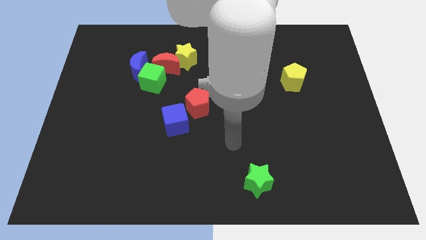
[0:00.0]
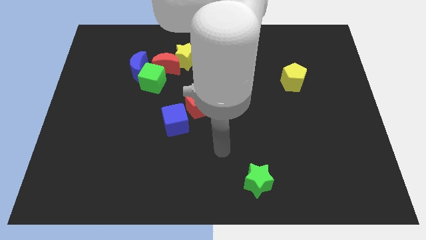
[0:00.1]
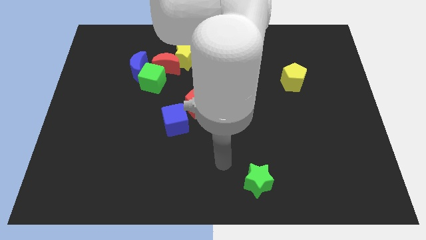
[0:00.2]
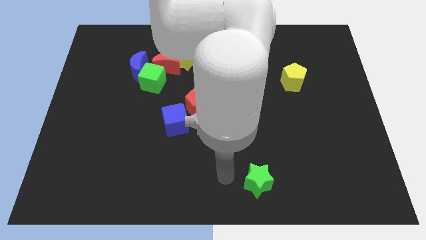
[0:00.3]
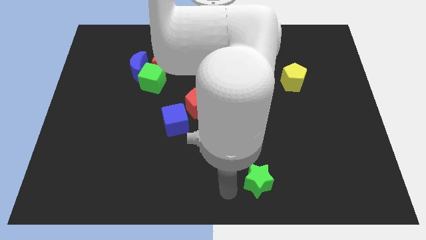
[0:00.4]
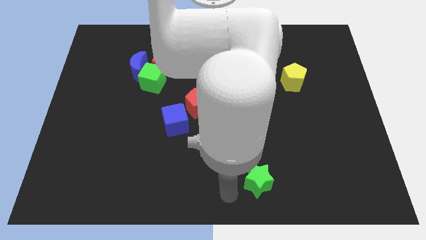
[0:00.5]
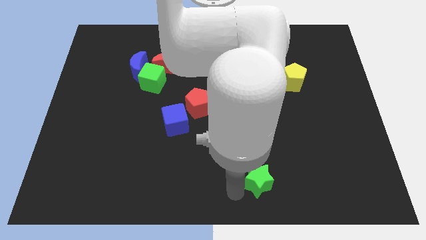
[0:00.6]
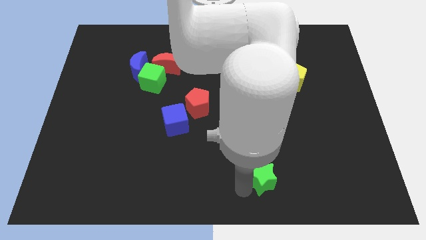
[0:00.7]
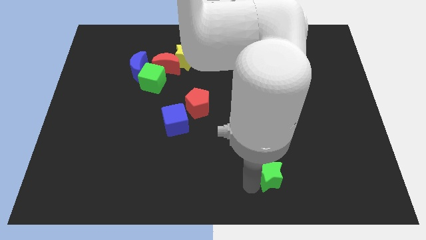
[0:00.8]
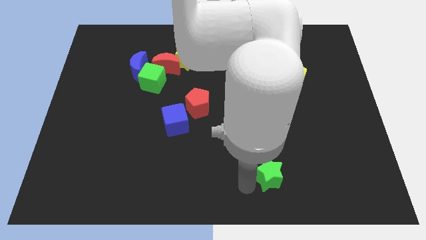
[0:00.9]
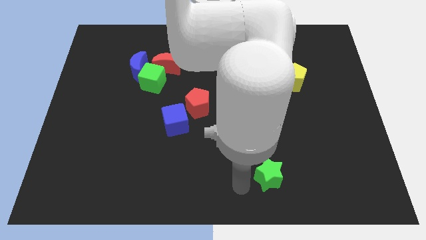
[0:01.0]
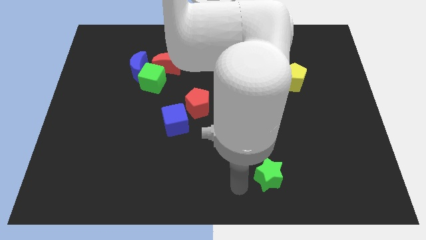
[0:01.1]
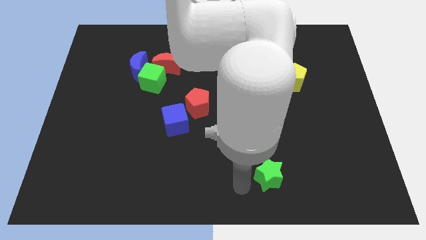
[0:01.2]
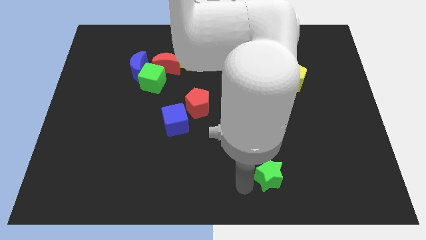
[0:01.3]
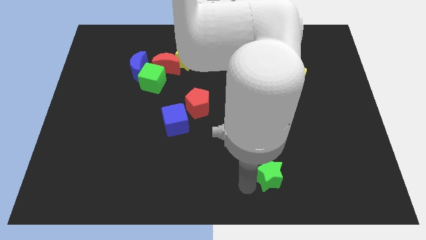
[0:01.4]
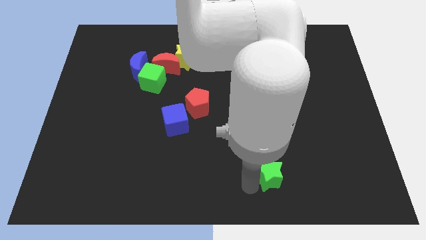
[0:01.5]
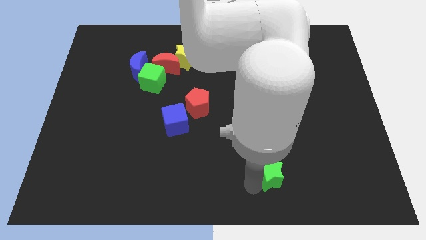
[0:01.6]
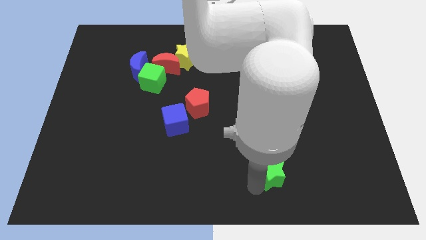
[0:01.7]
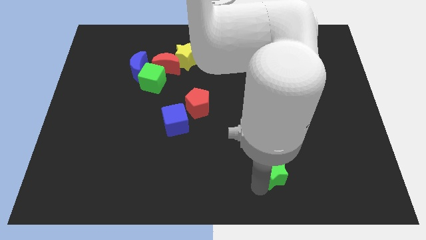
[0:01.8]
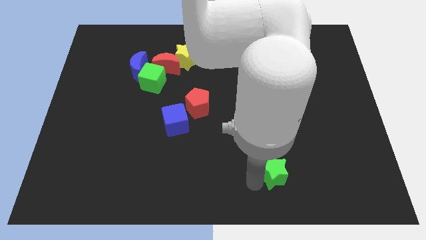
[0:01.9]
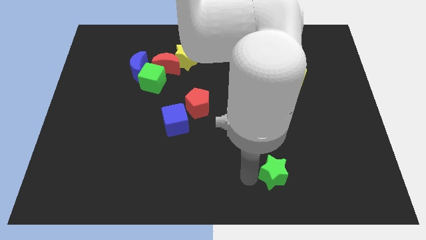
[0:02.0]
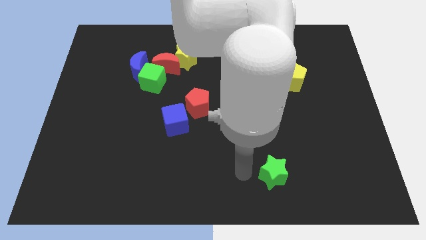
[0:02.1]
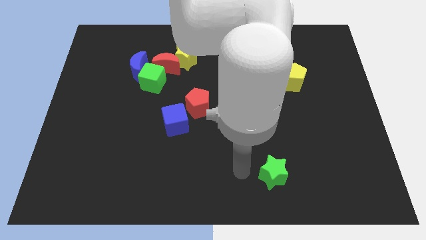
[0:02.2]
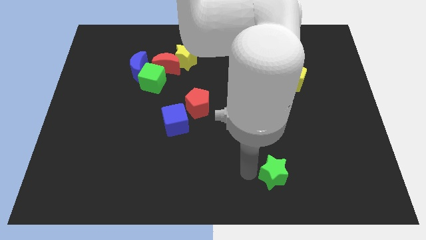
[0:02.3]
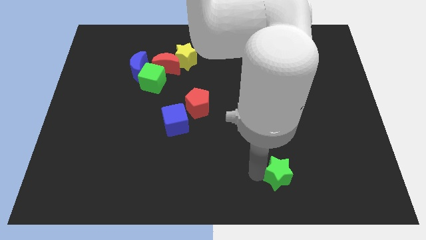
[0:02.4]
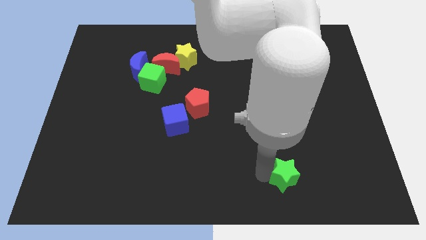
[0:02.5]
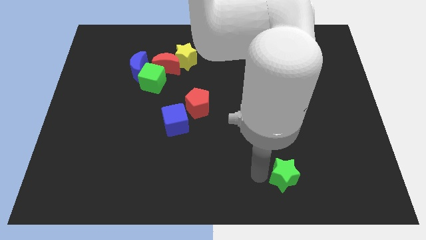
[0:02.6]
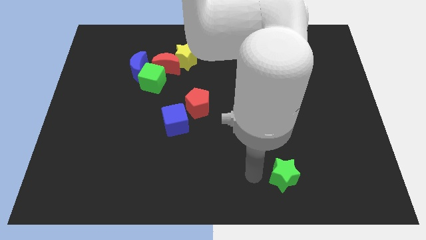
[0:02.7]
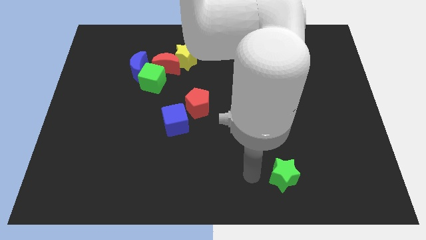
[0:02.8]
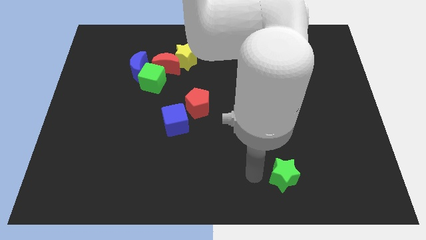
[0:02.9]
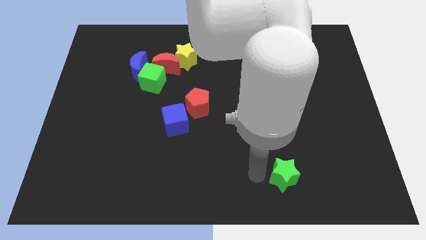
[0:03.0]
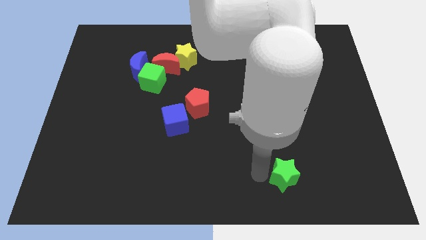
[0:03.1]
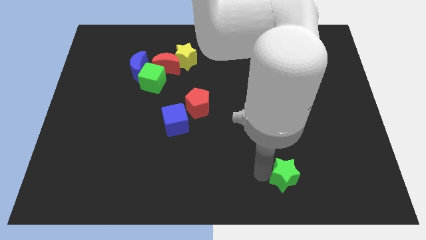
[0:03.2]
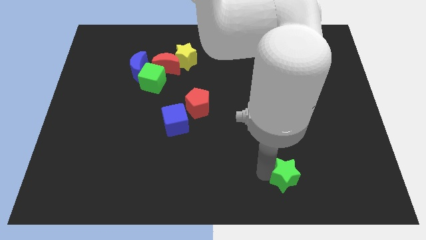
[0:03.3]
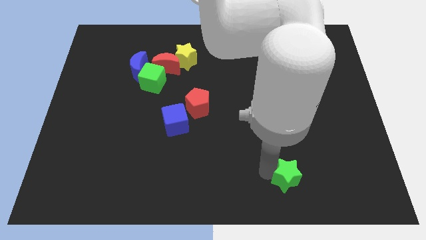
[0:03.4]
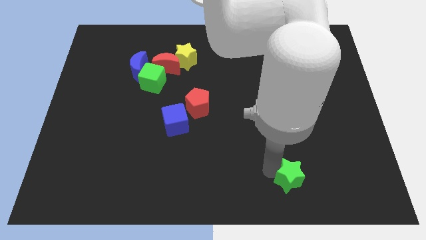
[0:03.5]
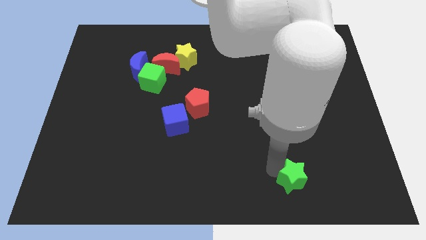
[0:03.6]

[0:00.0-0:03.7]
slide the green star a bit right

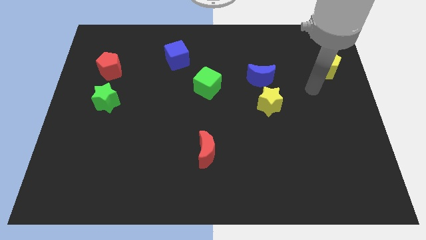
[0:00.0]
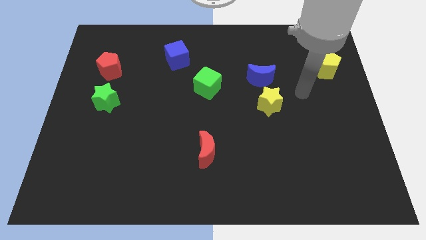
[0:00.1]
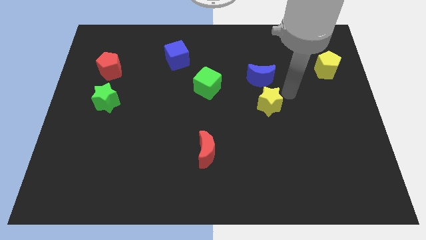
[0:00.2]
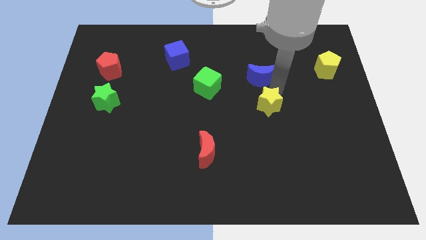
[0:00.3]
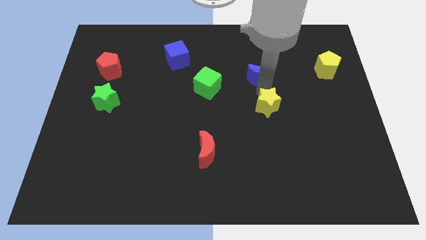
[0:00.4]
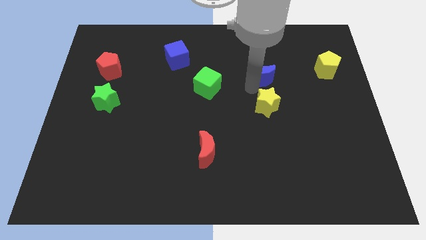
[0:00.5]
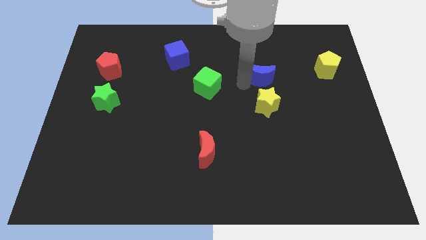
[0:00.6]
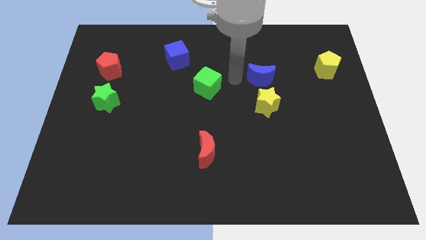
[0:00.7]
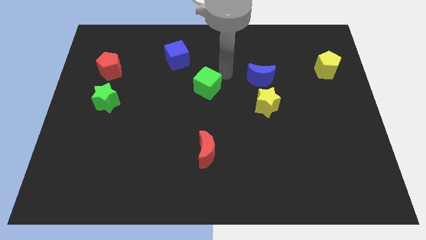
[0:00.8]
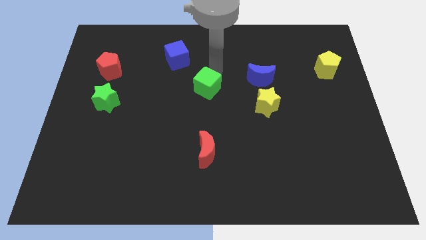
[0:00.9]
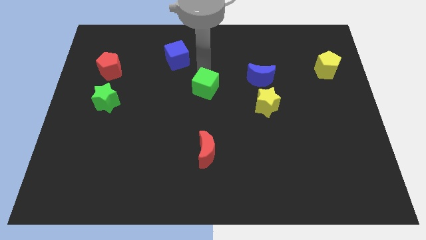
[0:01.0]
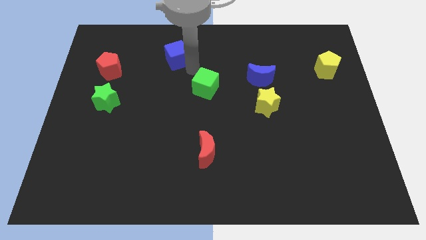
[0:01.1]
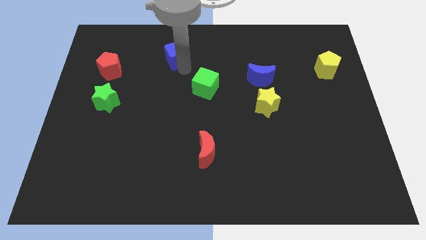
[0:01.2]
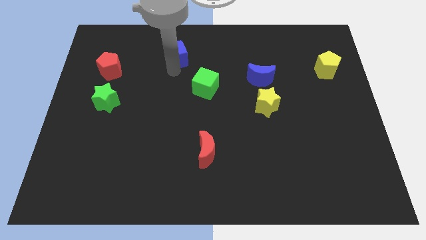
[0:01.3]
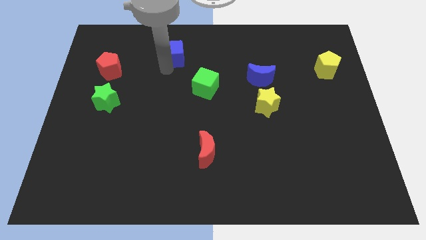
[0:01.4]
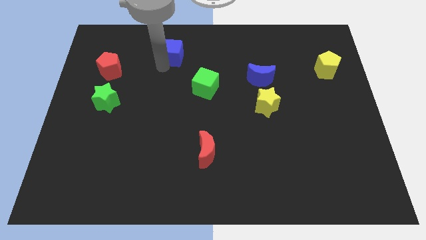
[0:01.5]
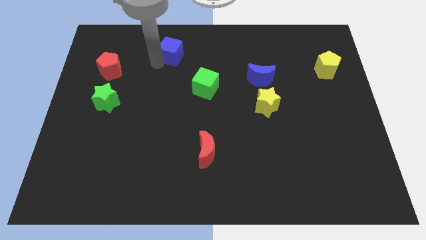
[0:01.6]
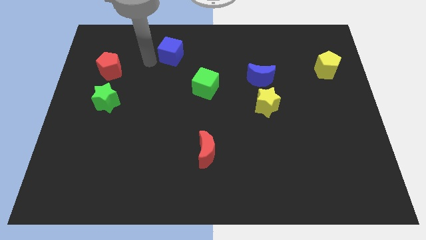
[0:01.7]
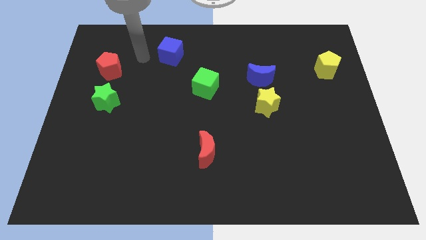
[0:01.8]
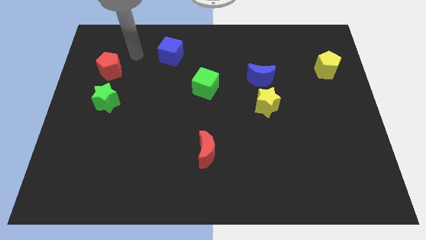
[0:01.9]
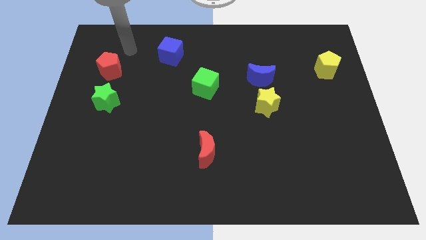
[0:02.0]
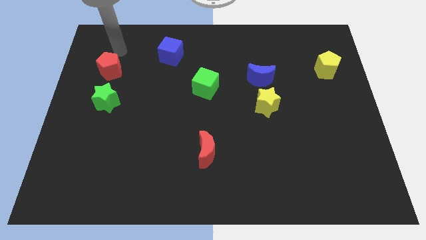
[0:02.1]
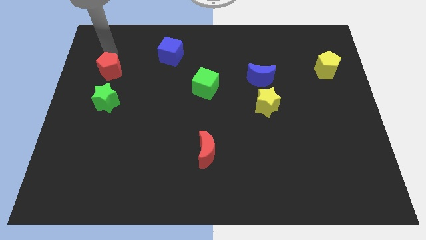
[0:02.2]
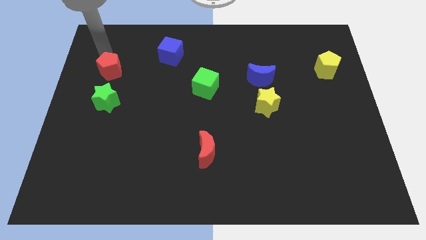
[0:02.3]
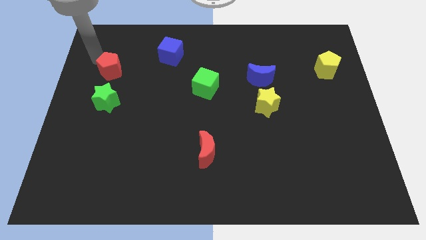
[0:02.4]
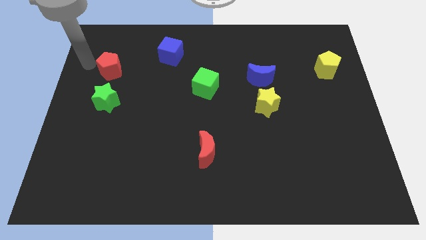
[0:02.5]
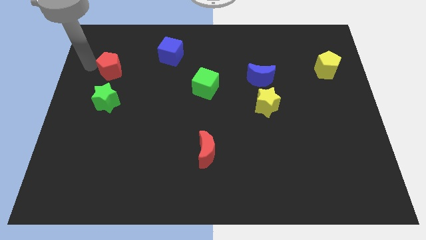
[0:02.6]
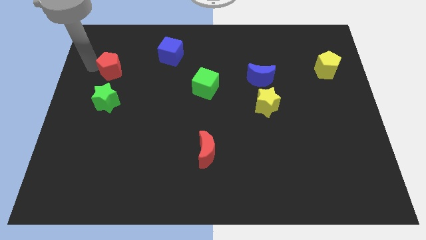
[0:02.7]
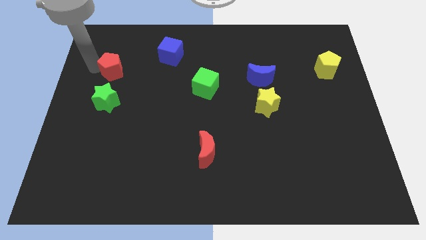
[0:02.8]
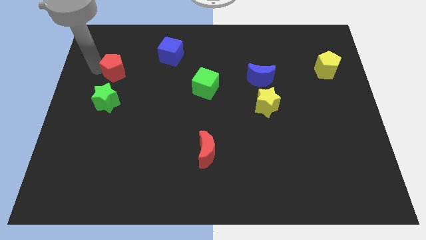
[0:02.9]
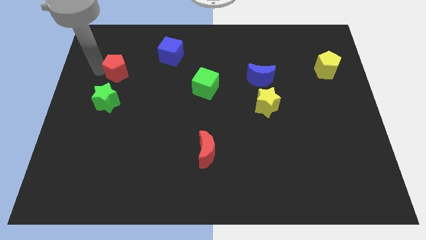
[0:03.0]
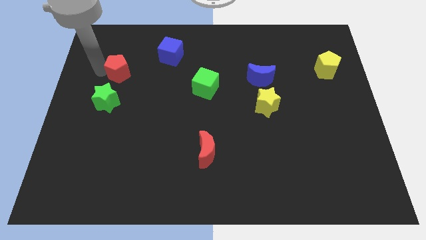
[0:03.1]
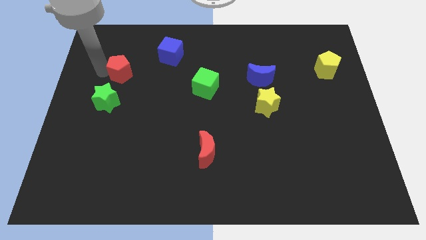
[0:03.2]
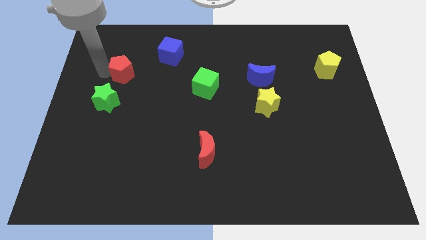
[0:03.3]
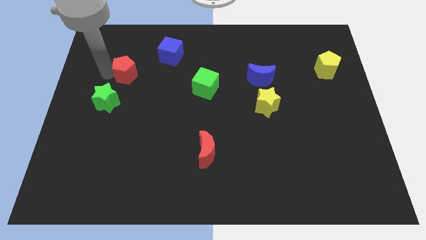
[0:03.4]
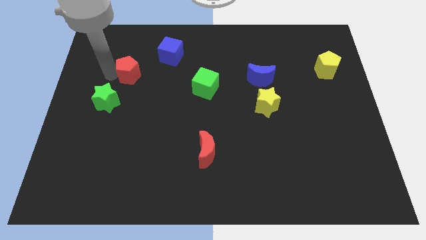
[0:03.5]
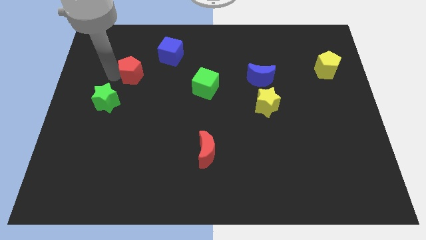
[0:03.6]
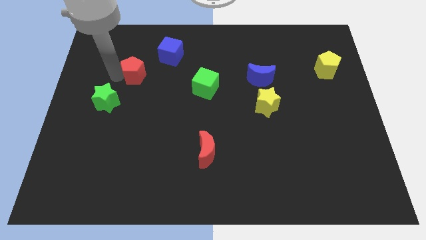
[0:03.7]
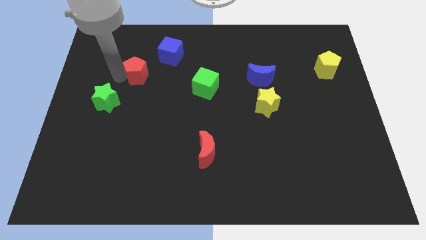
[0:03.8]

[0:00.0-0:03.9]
slightly move the red pentagon to the right

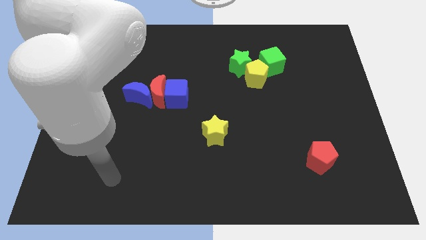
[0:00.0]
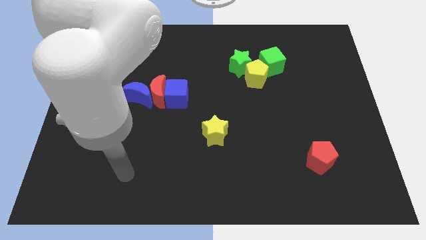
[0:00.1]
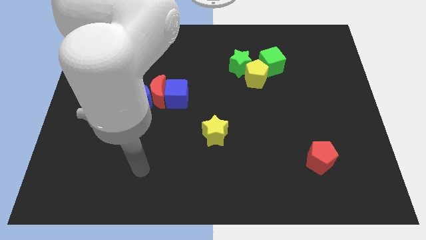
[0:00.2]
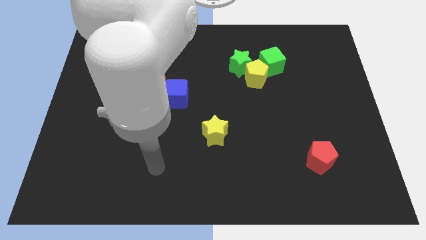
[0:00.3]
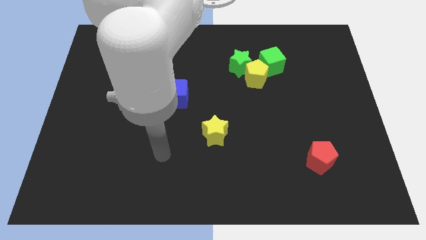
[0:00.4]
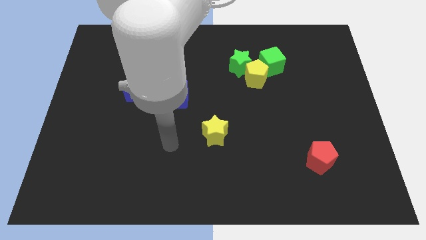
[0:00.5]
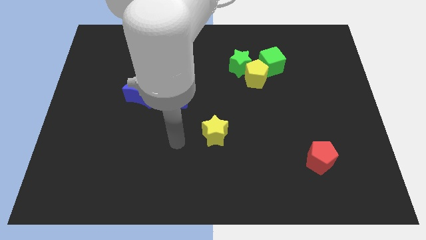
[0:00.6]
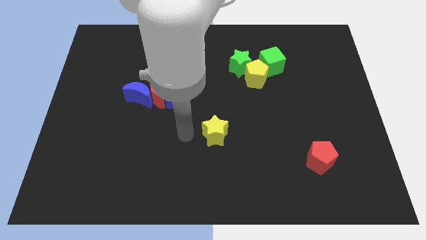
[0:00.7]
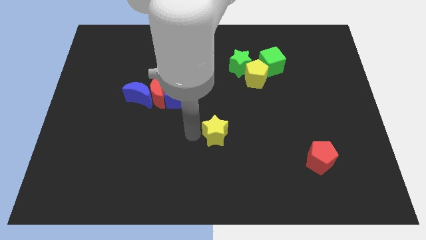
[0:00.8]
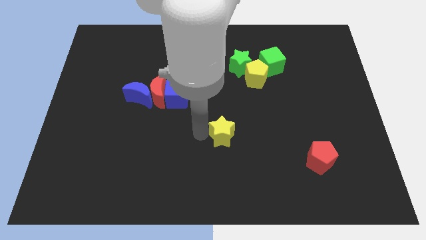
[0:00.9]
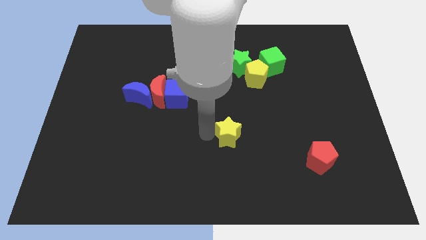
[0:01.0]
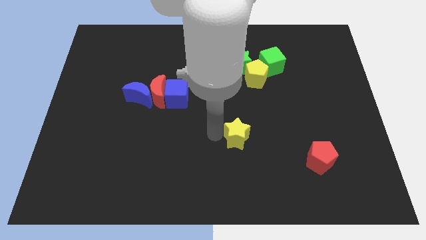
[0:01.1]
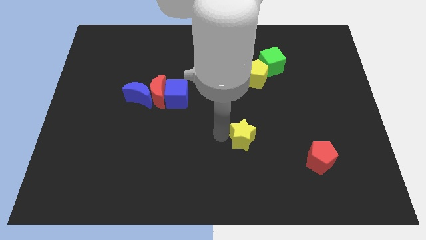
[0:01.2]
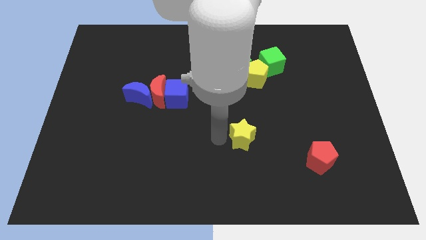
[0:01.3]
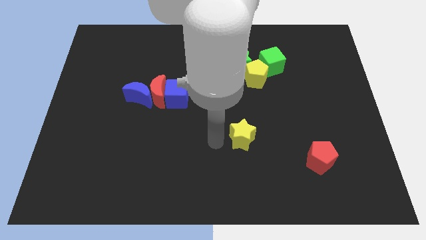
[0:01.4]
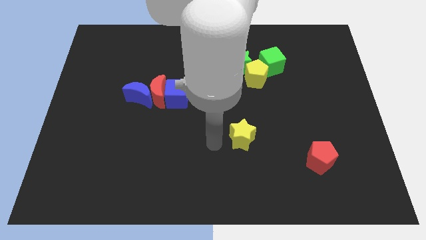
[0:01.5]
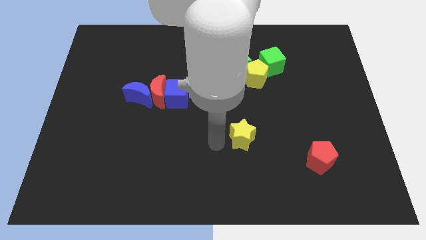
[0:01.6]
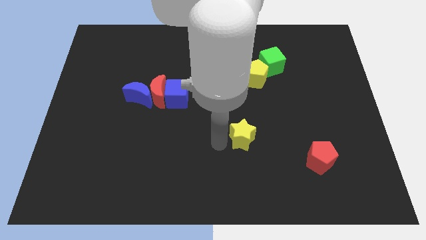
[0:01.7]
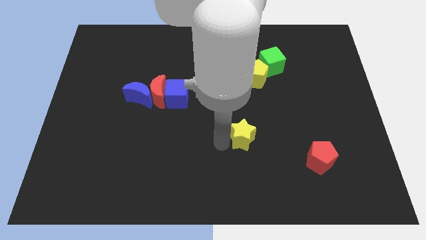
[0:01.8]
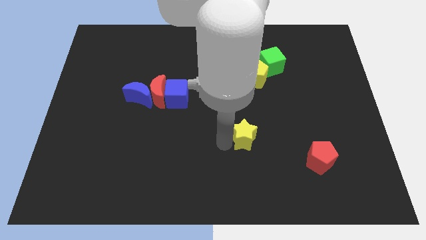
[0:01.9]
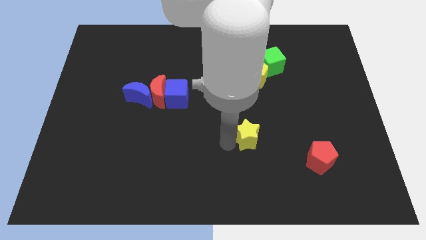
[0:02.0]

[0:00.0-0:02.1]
move the yellow star right a bit
